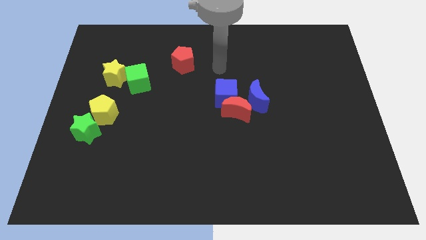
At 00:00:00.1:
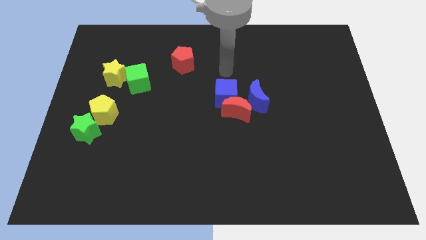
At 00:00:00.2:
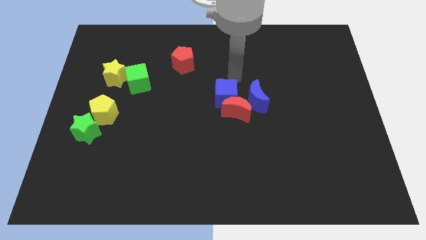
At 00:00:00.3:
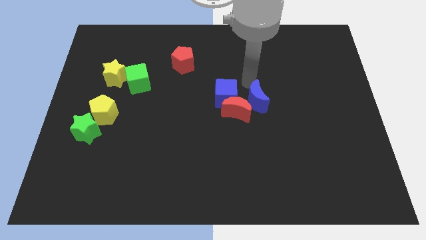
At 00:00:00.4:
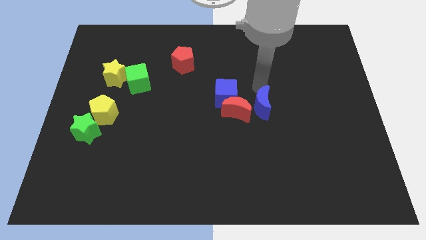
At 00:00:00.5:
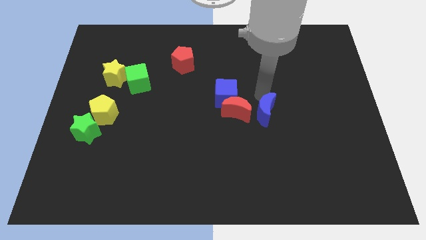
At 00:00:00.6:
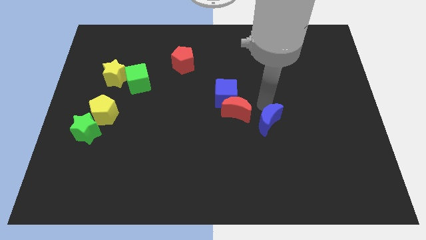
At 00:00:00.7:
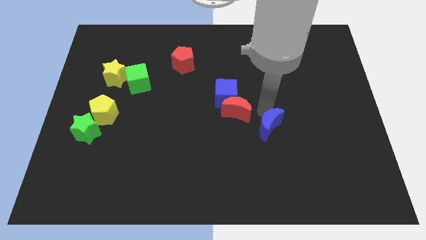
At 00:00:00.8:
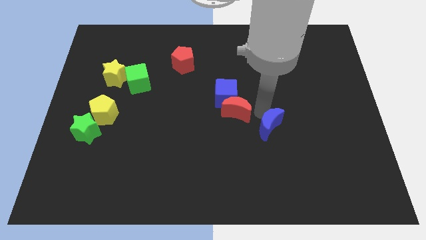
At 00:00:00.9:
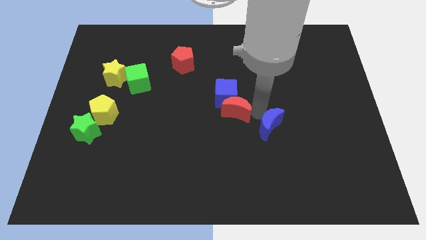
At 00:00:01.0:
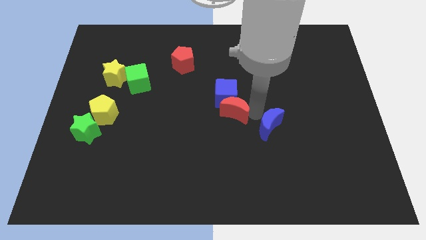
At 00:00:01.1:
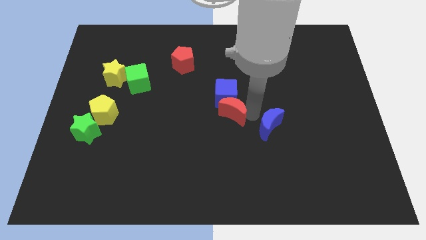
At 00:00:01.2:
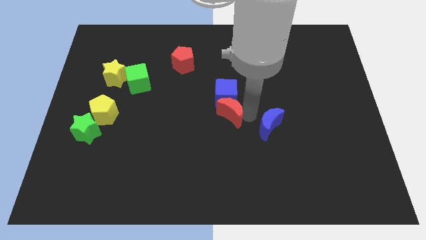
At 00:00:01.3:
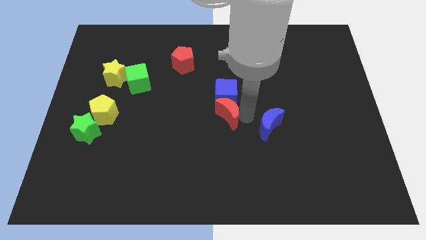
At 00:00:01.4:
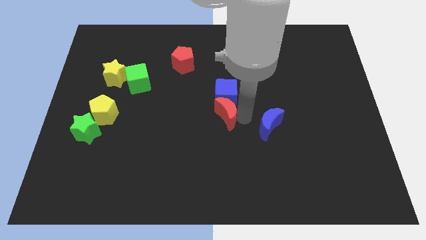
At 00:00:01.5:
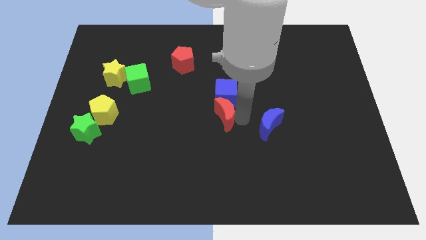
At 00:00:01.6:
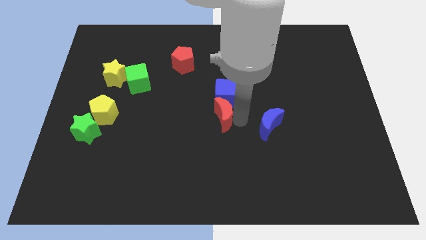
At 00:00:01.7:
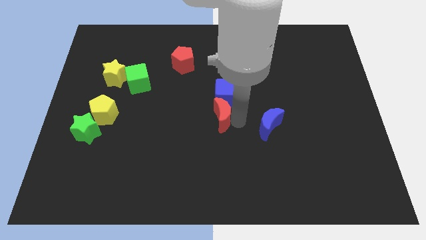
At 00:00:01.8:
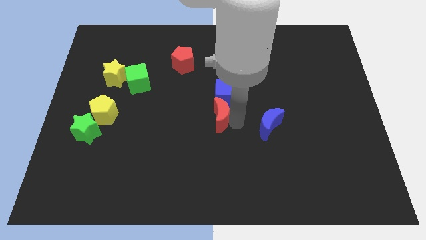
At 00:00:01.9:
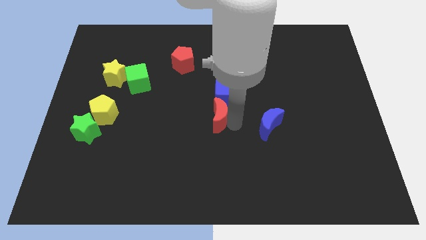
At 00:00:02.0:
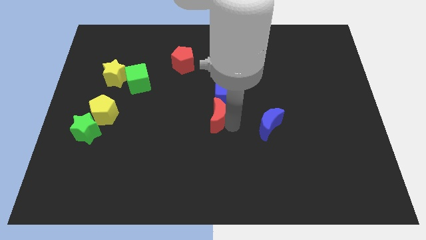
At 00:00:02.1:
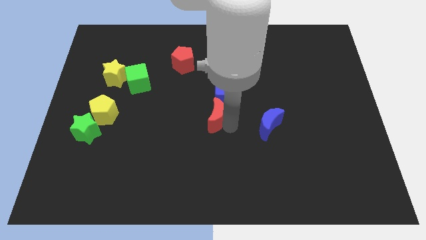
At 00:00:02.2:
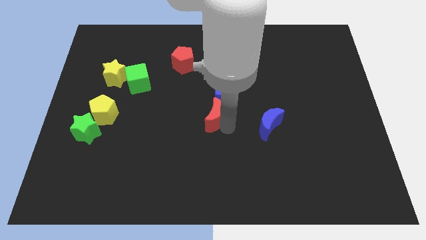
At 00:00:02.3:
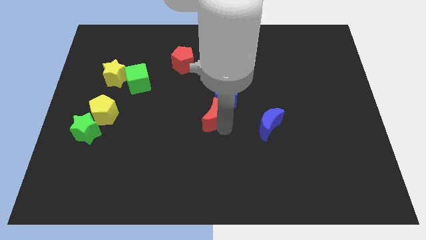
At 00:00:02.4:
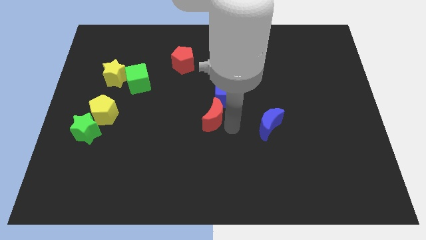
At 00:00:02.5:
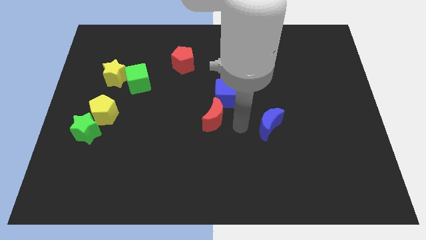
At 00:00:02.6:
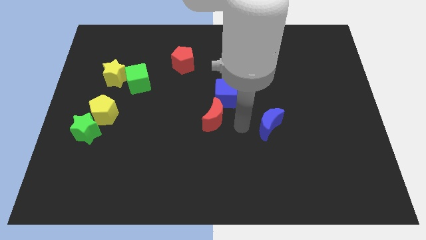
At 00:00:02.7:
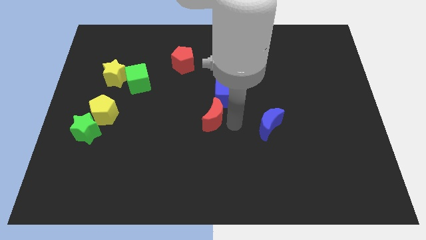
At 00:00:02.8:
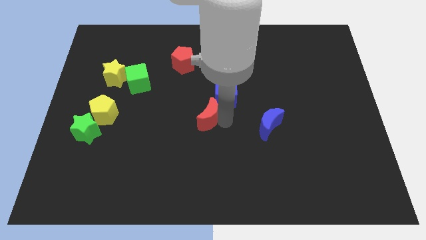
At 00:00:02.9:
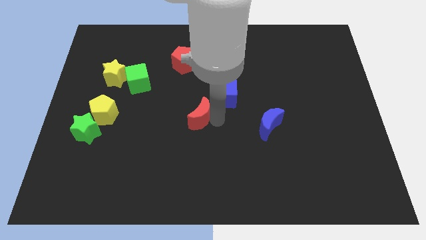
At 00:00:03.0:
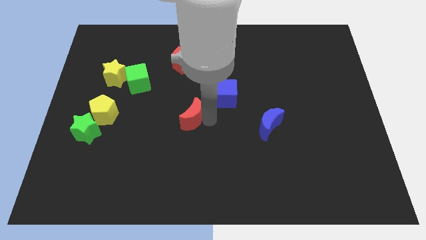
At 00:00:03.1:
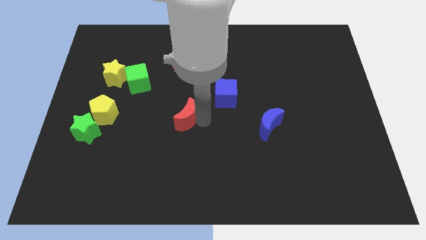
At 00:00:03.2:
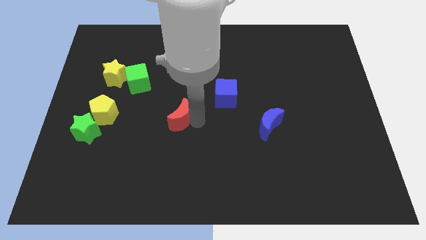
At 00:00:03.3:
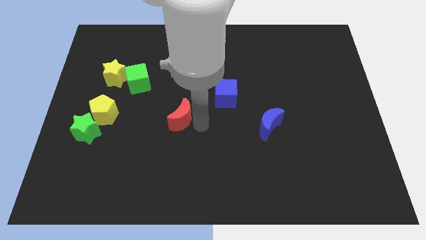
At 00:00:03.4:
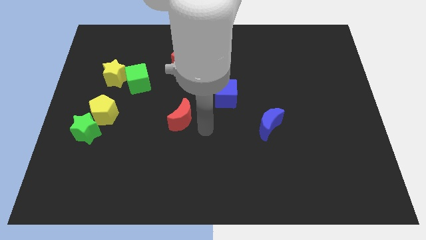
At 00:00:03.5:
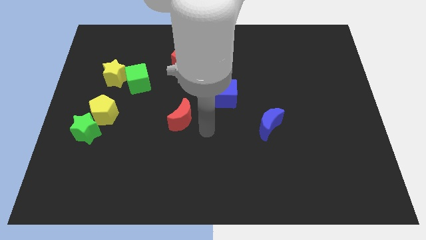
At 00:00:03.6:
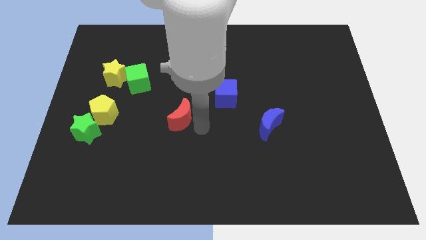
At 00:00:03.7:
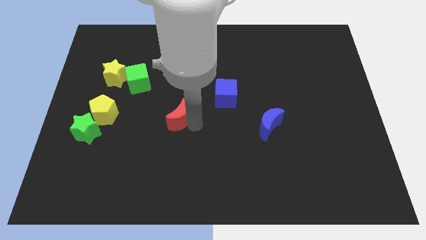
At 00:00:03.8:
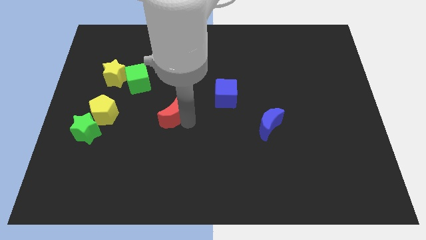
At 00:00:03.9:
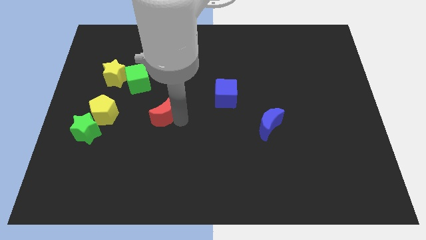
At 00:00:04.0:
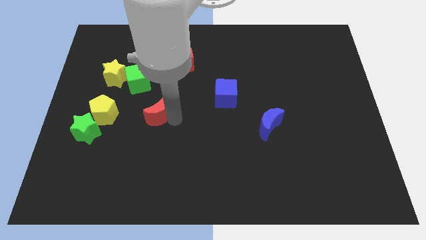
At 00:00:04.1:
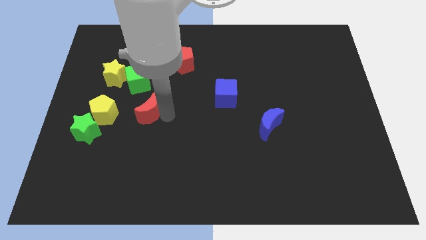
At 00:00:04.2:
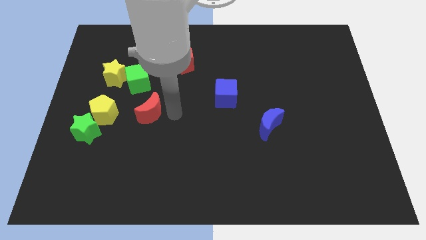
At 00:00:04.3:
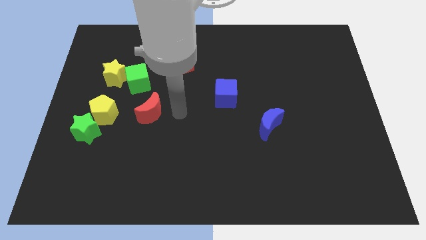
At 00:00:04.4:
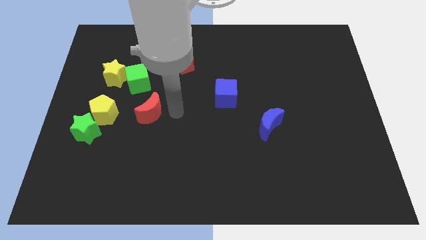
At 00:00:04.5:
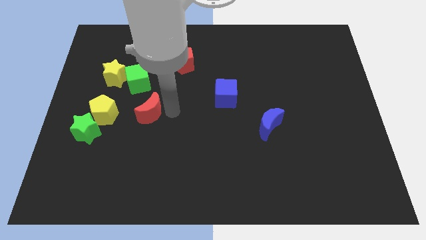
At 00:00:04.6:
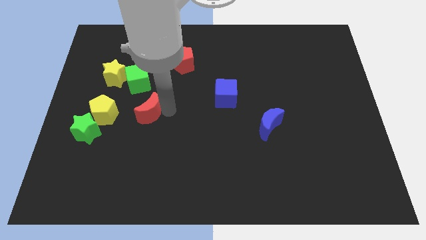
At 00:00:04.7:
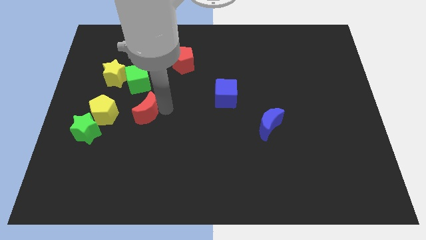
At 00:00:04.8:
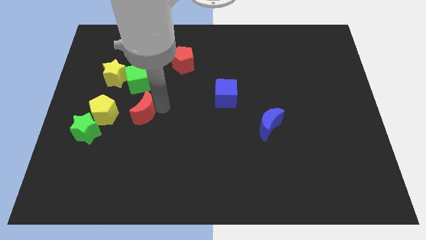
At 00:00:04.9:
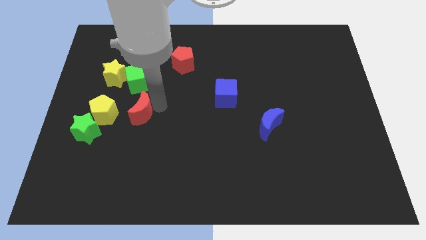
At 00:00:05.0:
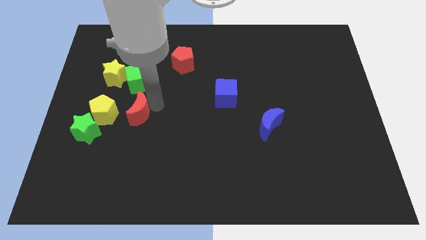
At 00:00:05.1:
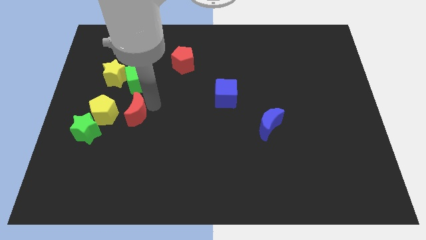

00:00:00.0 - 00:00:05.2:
slide the red moon to the top right side of the green star

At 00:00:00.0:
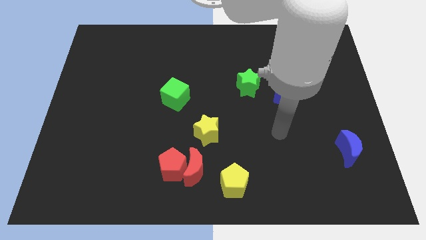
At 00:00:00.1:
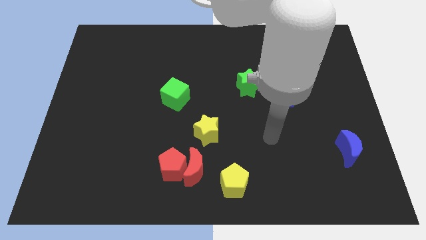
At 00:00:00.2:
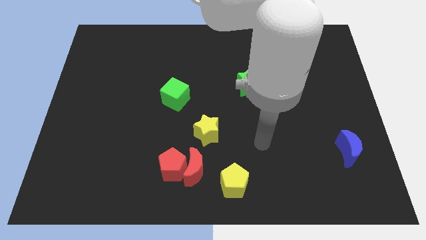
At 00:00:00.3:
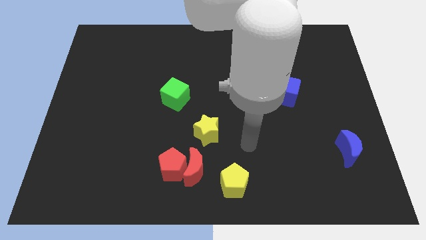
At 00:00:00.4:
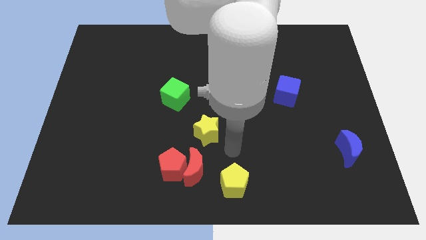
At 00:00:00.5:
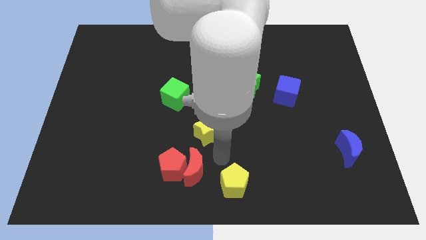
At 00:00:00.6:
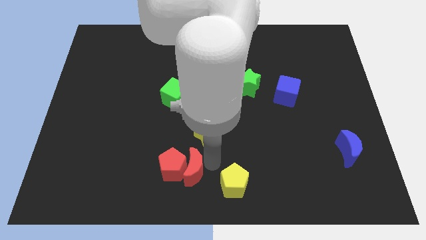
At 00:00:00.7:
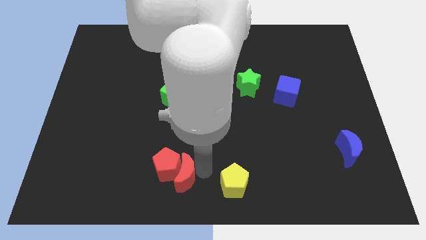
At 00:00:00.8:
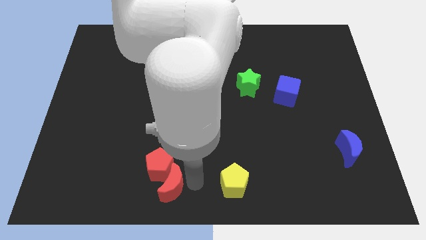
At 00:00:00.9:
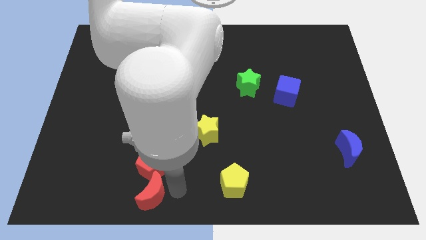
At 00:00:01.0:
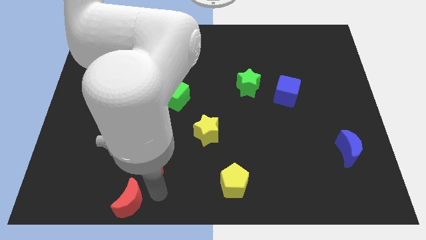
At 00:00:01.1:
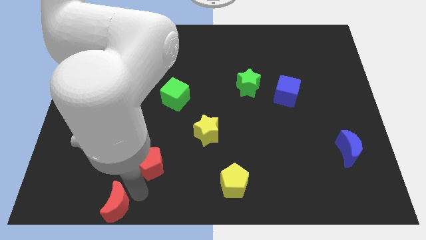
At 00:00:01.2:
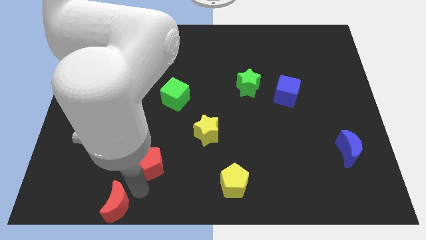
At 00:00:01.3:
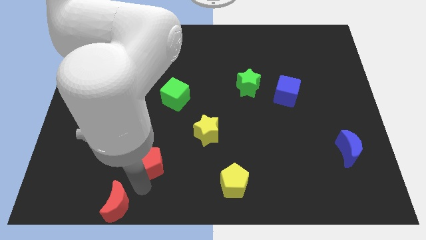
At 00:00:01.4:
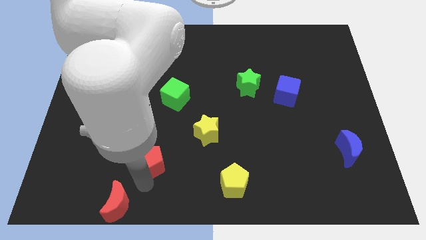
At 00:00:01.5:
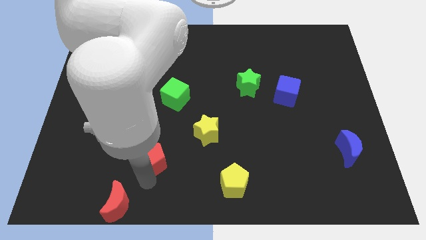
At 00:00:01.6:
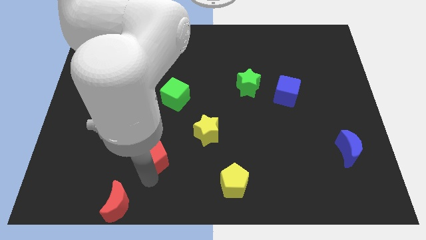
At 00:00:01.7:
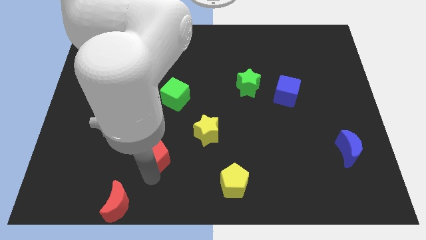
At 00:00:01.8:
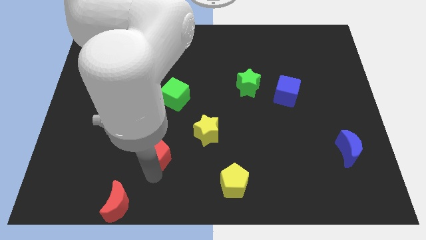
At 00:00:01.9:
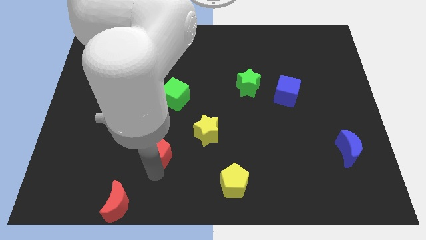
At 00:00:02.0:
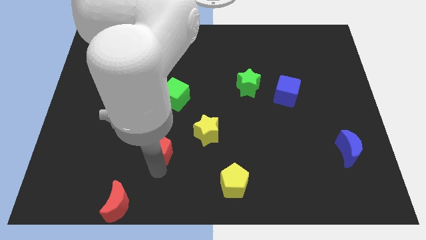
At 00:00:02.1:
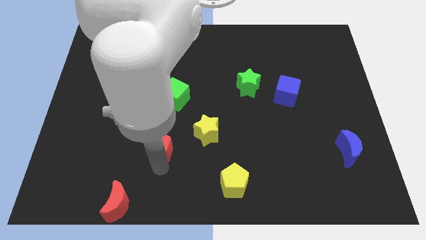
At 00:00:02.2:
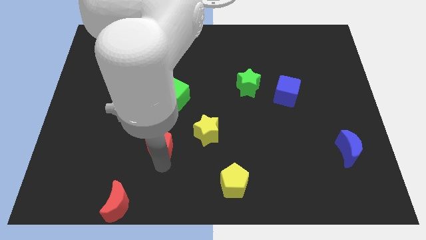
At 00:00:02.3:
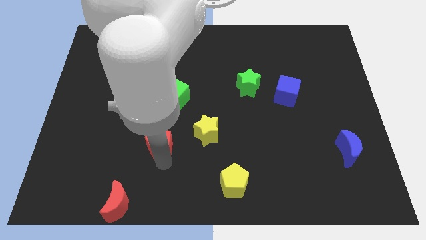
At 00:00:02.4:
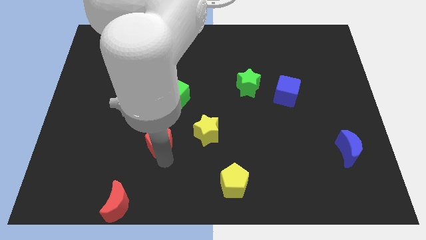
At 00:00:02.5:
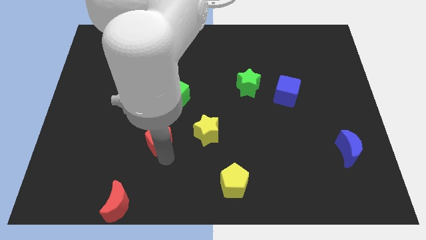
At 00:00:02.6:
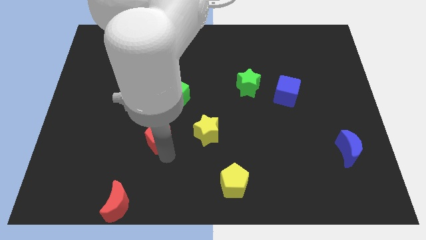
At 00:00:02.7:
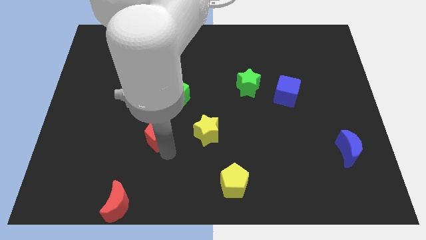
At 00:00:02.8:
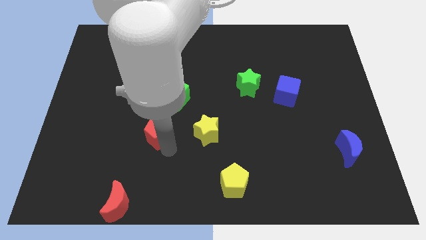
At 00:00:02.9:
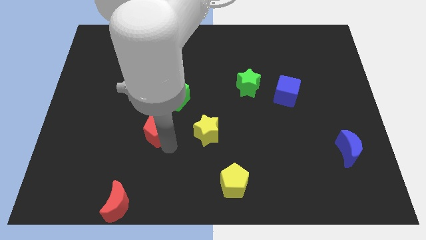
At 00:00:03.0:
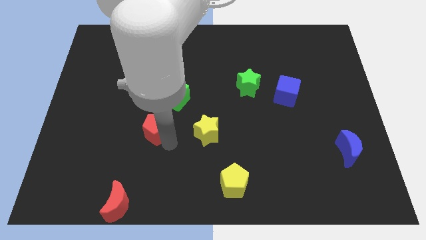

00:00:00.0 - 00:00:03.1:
move the red pentagon diagonally down and to the left of the green cube

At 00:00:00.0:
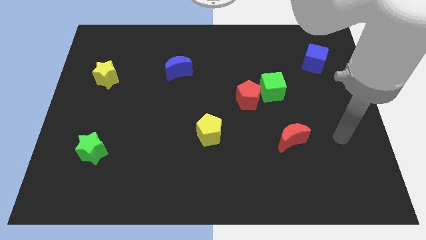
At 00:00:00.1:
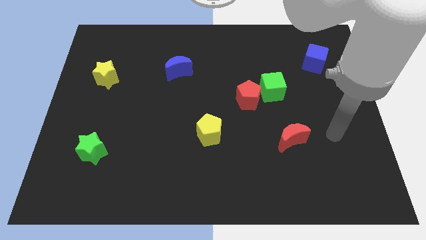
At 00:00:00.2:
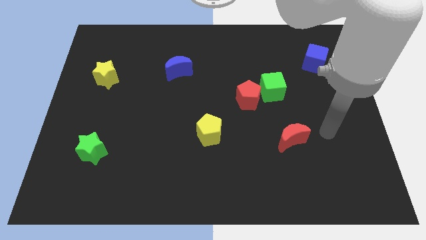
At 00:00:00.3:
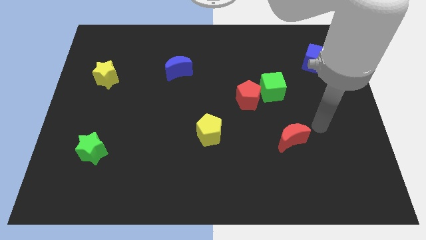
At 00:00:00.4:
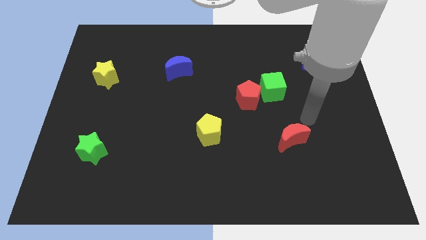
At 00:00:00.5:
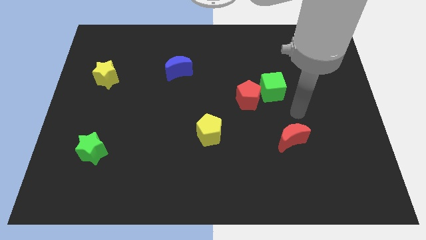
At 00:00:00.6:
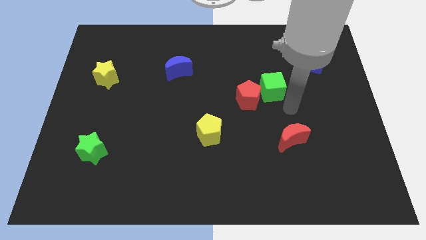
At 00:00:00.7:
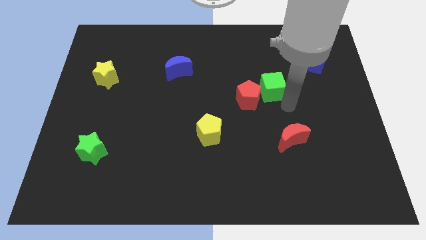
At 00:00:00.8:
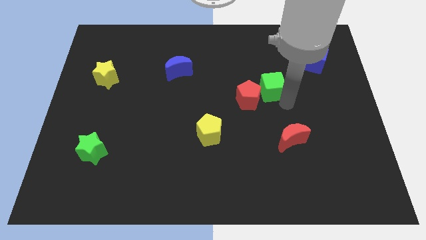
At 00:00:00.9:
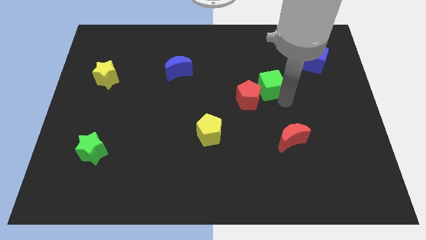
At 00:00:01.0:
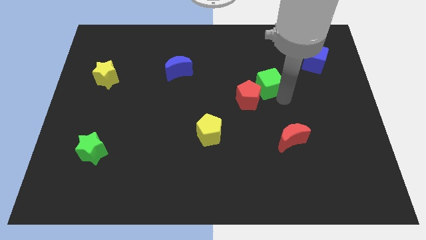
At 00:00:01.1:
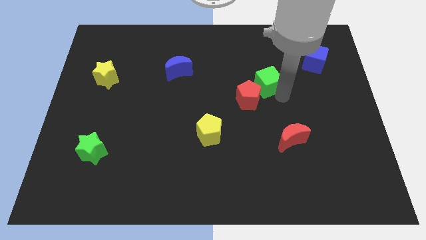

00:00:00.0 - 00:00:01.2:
slide the green cube to the top side of the red pentagon
